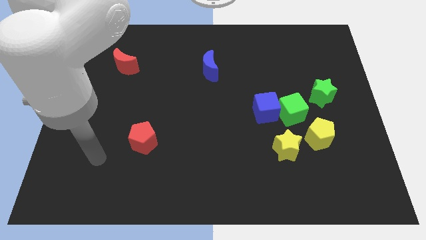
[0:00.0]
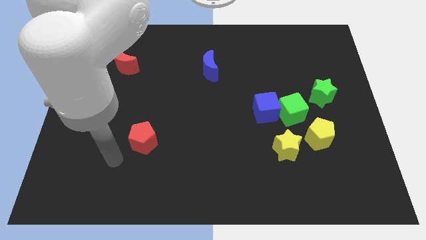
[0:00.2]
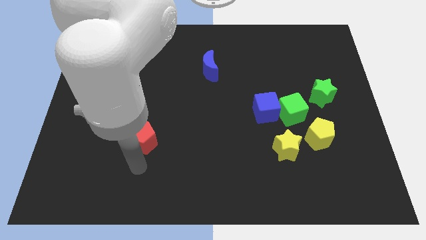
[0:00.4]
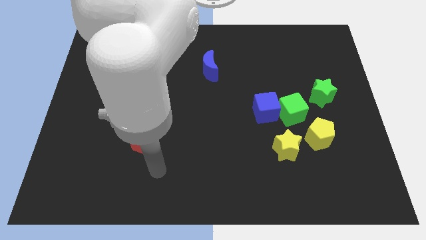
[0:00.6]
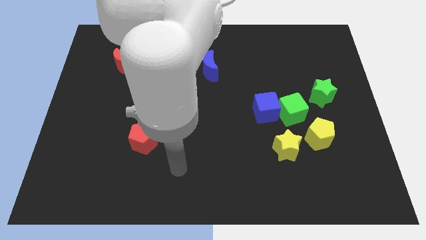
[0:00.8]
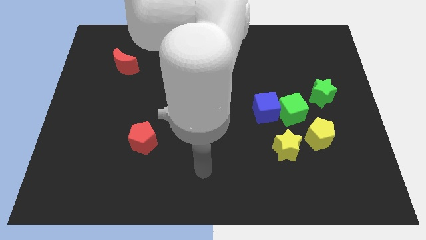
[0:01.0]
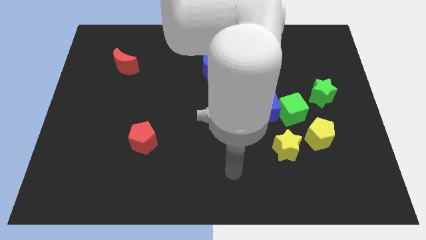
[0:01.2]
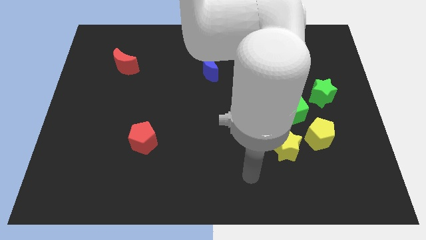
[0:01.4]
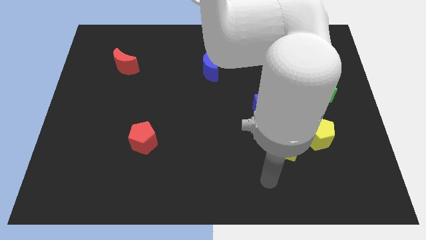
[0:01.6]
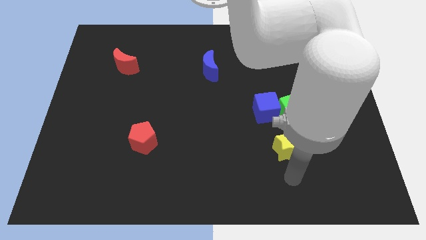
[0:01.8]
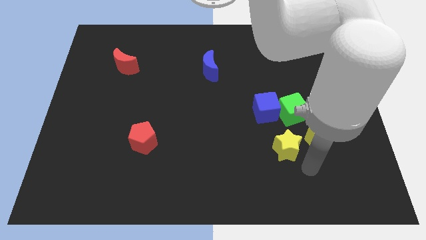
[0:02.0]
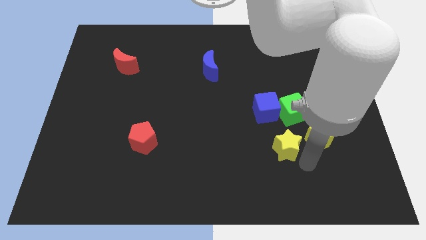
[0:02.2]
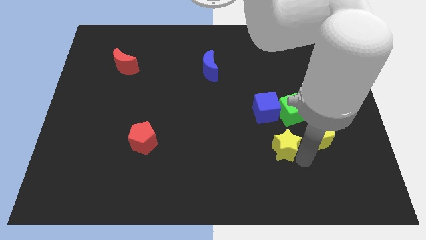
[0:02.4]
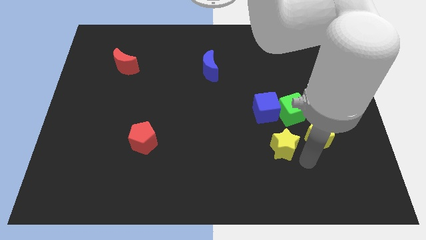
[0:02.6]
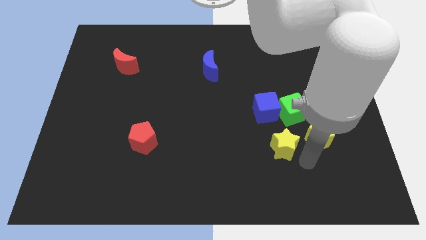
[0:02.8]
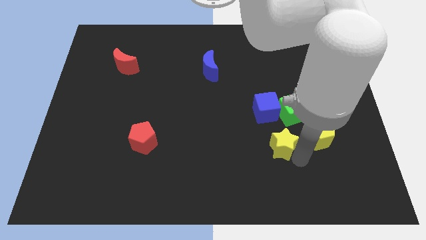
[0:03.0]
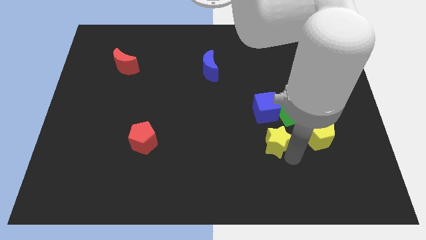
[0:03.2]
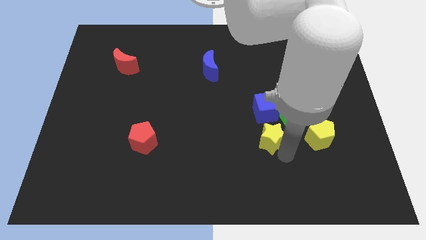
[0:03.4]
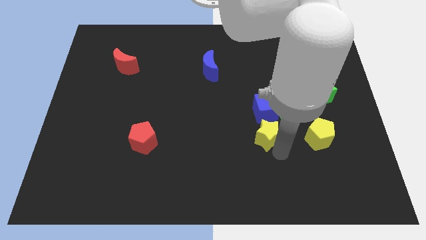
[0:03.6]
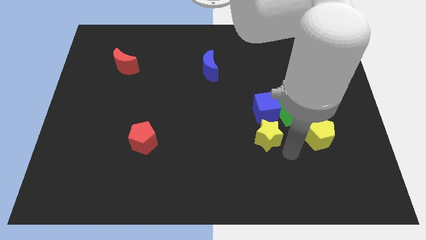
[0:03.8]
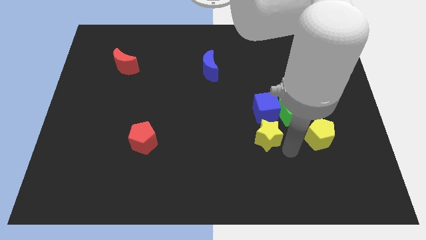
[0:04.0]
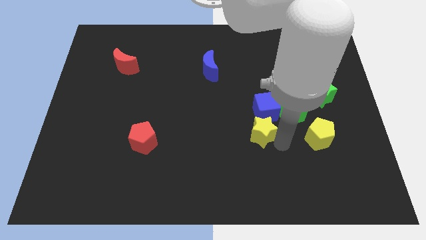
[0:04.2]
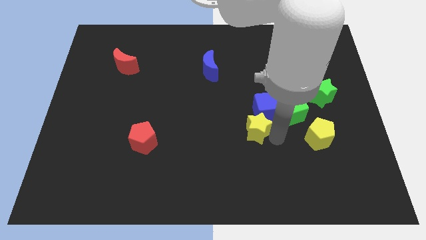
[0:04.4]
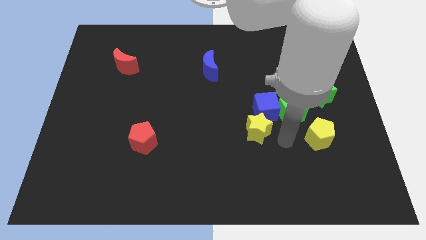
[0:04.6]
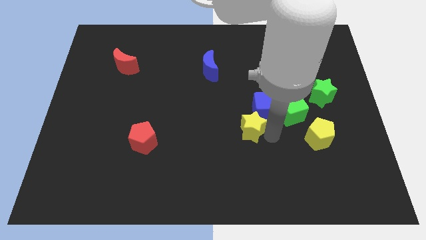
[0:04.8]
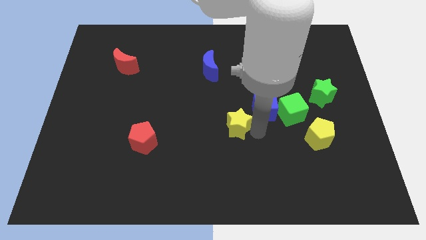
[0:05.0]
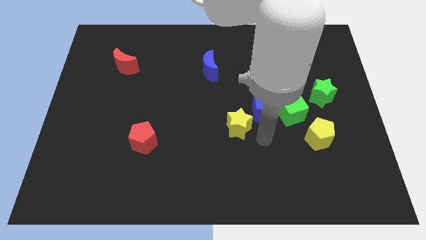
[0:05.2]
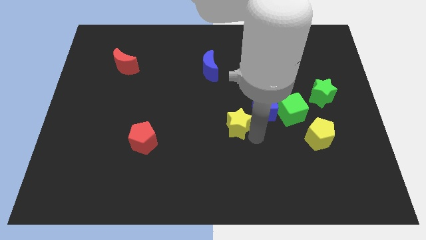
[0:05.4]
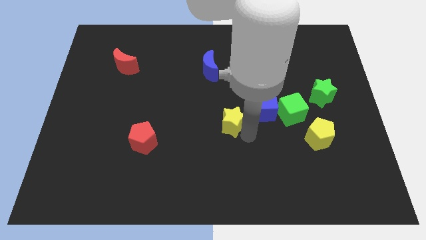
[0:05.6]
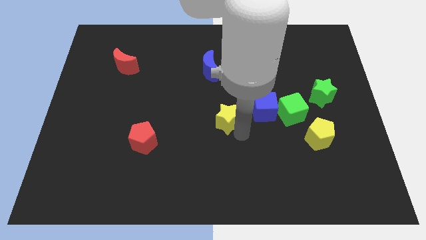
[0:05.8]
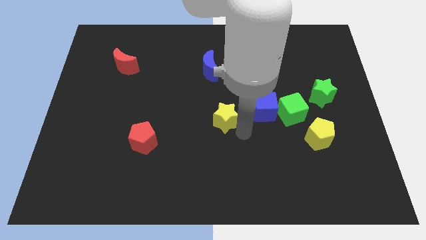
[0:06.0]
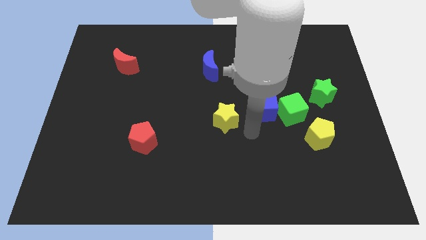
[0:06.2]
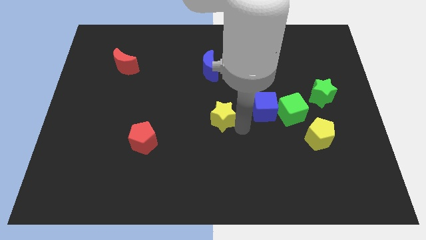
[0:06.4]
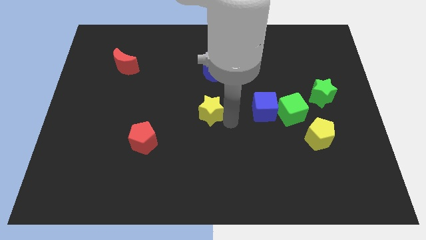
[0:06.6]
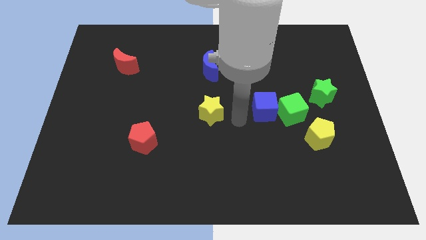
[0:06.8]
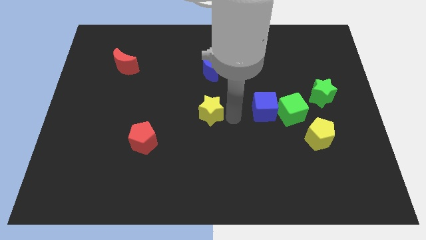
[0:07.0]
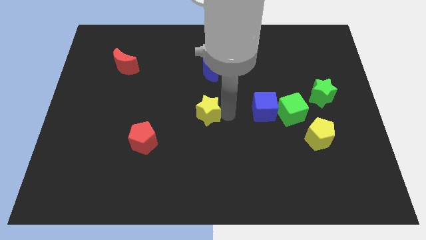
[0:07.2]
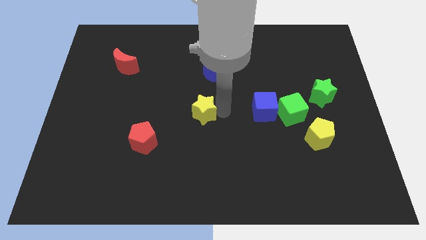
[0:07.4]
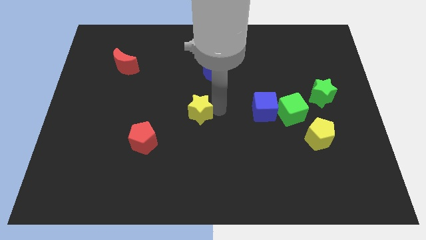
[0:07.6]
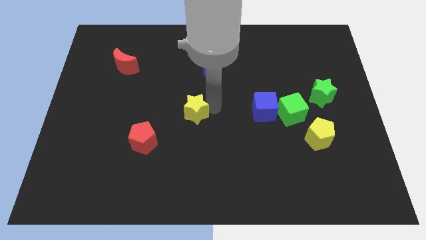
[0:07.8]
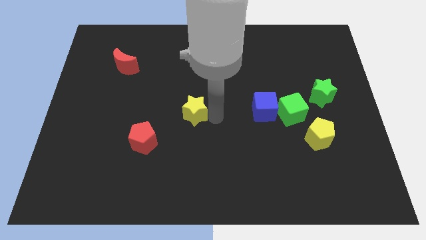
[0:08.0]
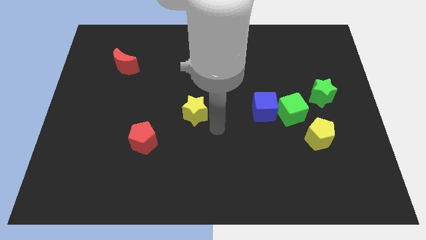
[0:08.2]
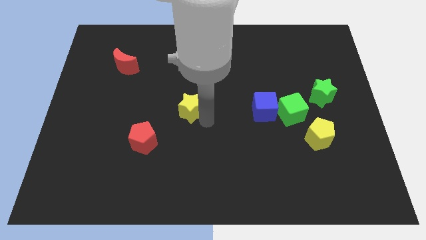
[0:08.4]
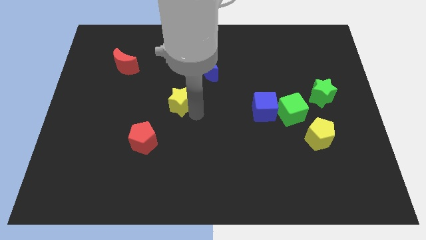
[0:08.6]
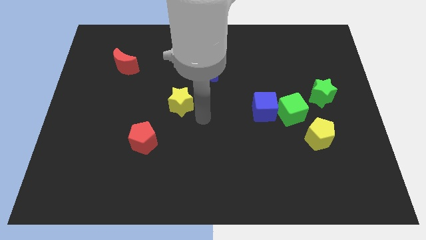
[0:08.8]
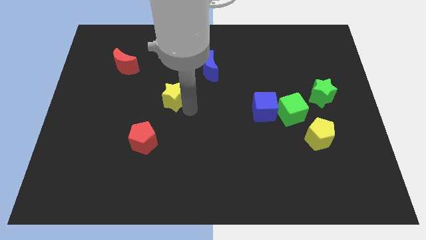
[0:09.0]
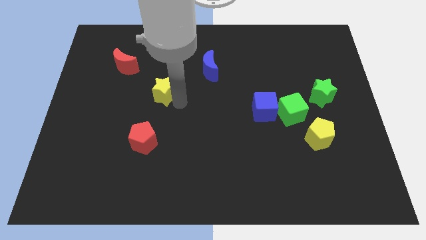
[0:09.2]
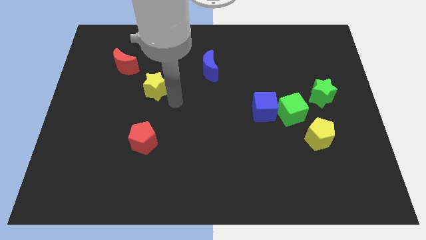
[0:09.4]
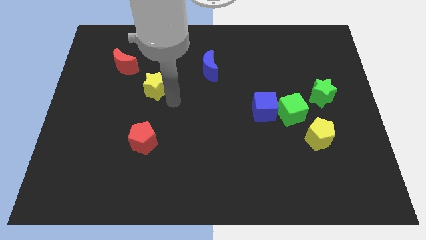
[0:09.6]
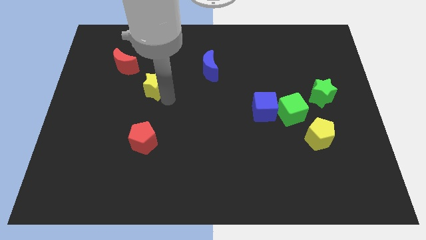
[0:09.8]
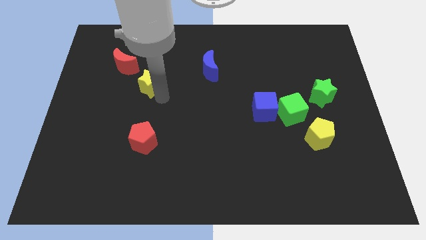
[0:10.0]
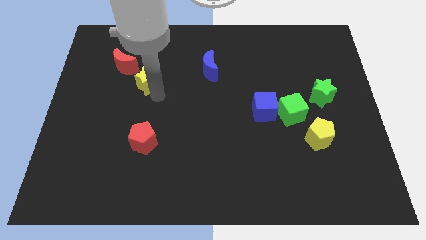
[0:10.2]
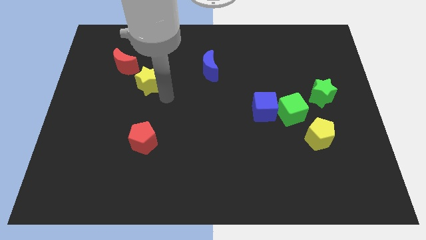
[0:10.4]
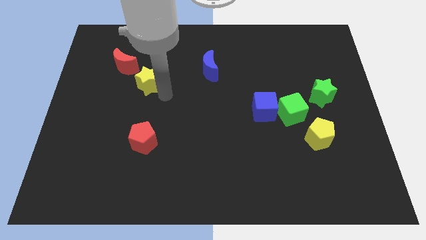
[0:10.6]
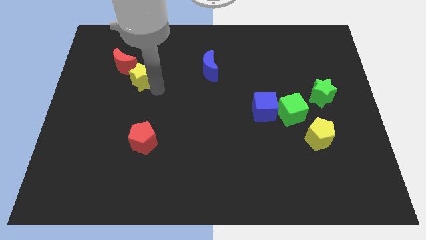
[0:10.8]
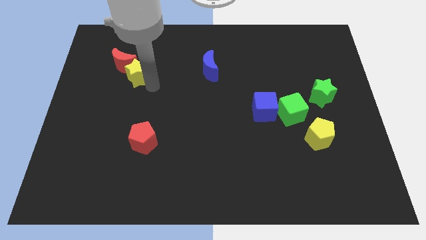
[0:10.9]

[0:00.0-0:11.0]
put the yellow star close to the red moon
